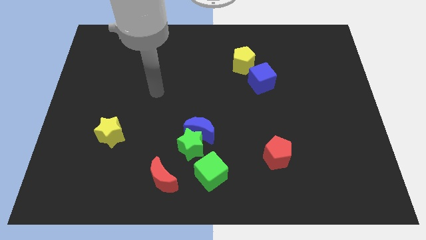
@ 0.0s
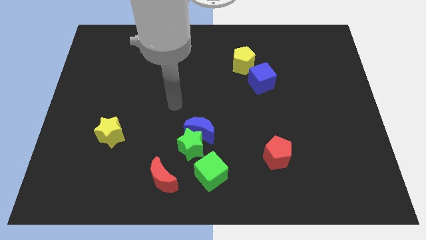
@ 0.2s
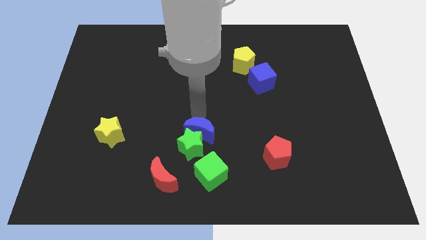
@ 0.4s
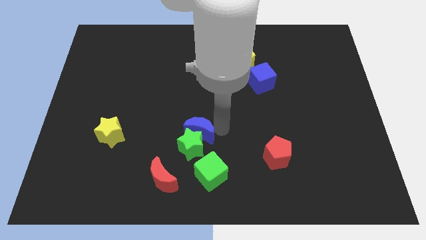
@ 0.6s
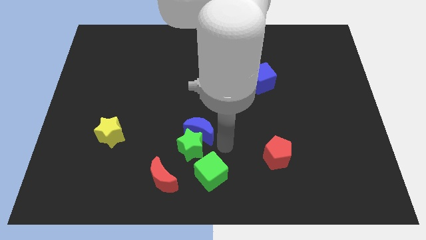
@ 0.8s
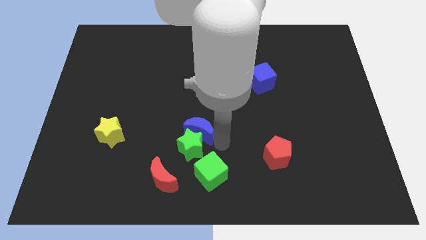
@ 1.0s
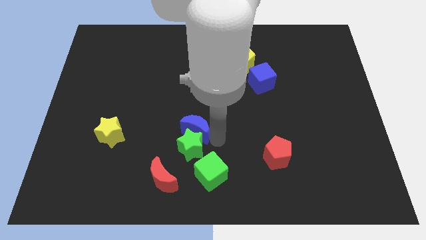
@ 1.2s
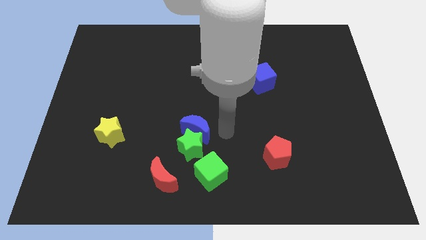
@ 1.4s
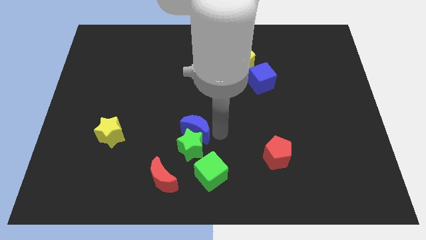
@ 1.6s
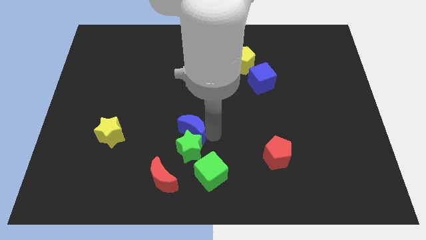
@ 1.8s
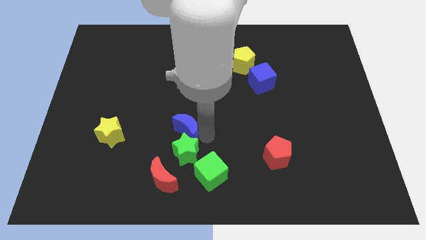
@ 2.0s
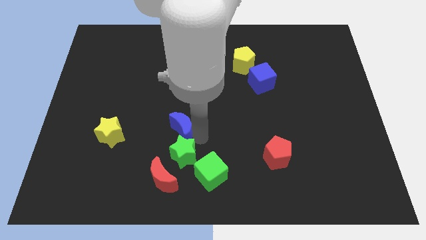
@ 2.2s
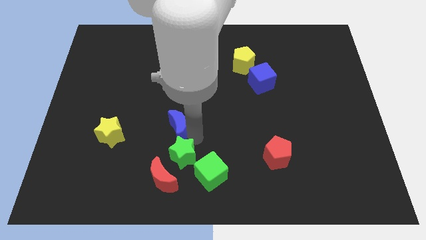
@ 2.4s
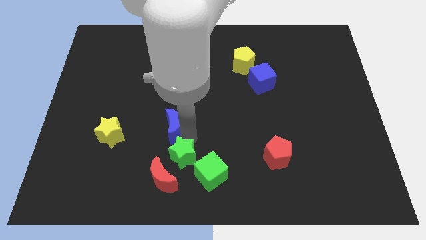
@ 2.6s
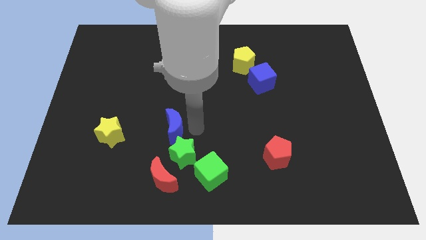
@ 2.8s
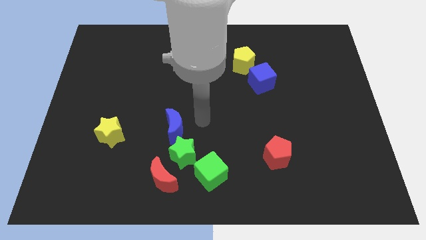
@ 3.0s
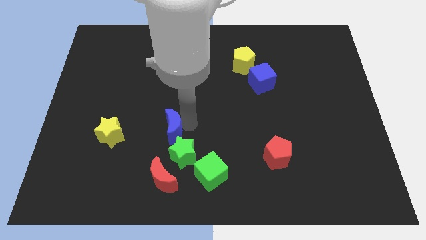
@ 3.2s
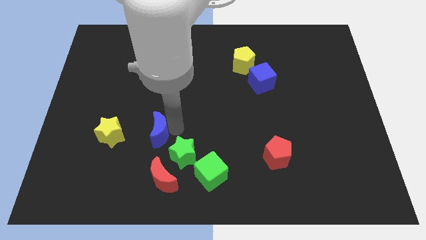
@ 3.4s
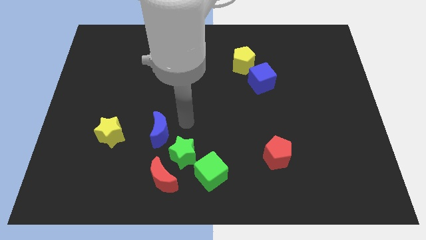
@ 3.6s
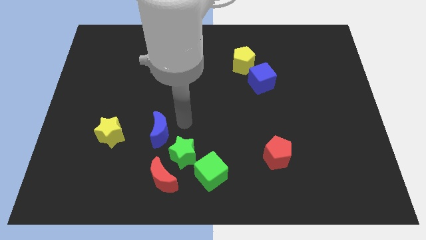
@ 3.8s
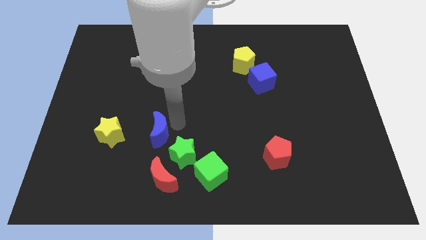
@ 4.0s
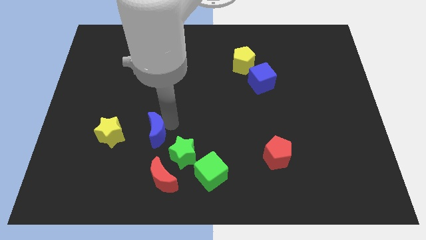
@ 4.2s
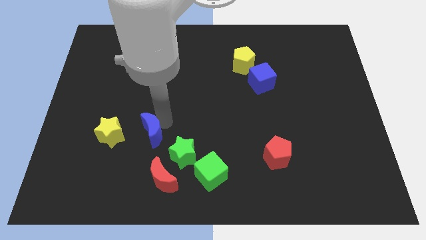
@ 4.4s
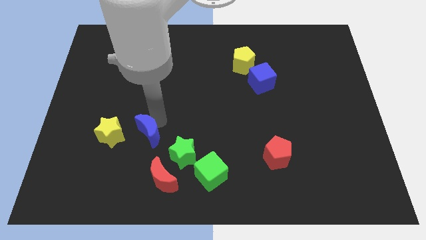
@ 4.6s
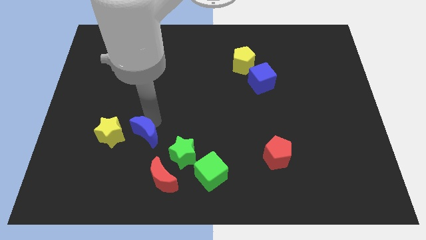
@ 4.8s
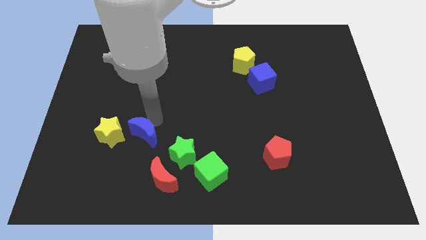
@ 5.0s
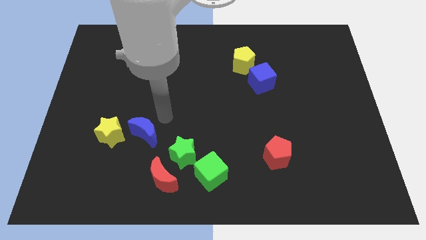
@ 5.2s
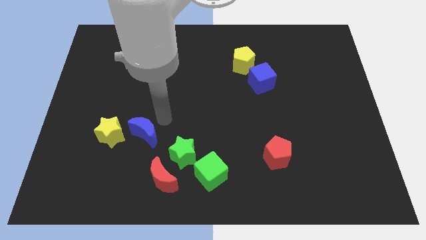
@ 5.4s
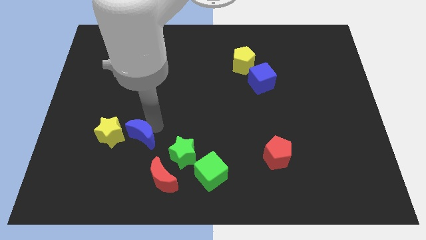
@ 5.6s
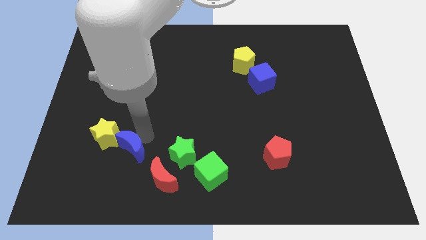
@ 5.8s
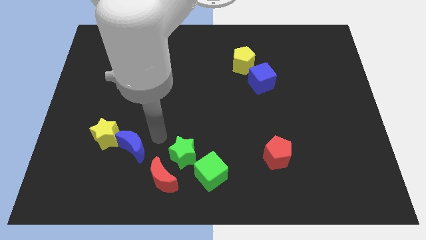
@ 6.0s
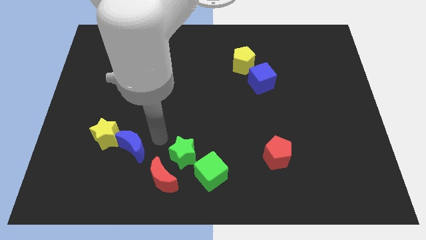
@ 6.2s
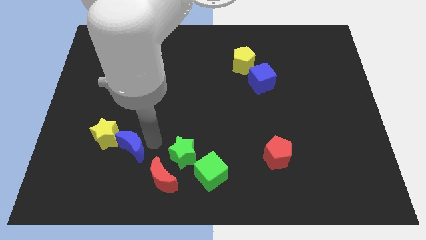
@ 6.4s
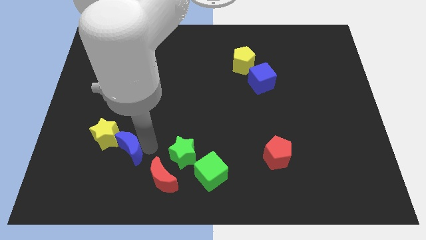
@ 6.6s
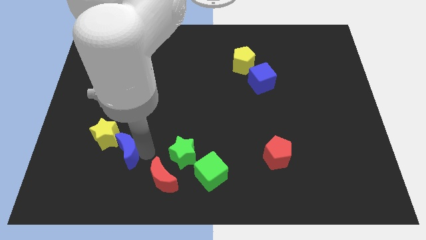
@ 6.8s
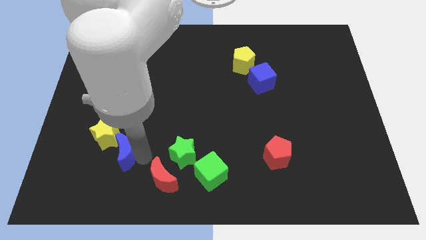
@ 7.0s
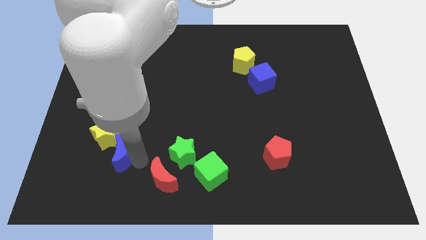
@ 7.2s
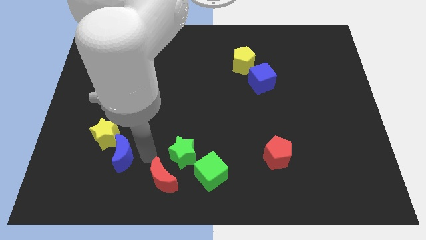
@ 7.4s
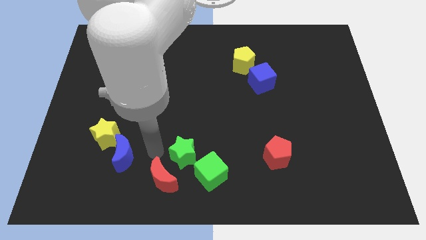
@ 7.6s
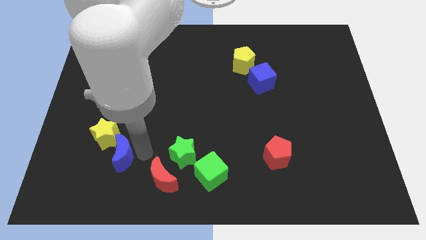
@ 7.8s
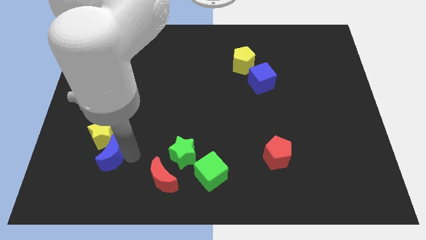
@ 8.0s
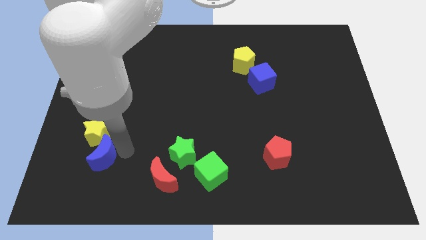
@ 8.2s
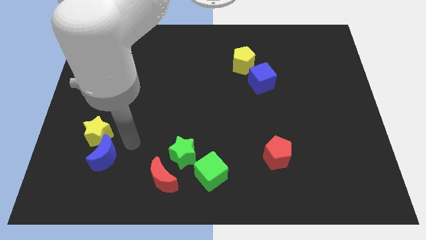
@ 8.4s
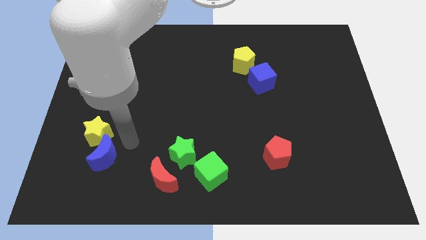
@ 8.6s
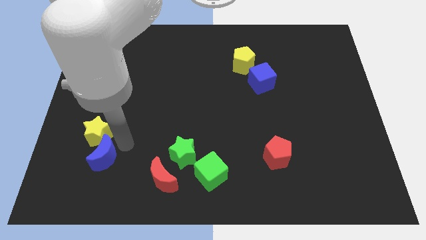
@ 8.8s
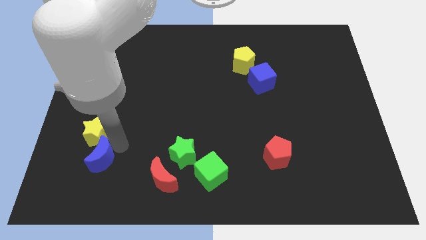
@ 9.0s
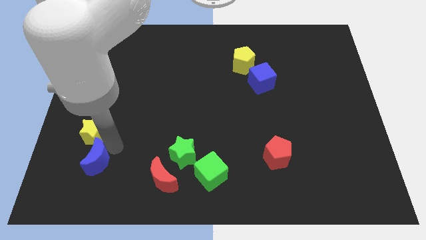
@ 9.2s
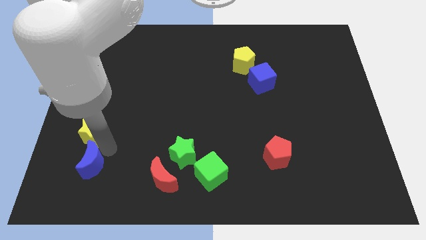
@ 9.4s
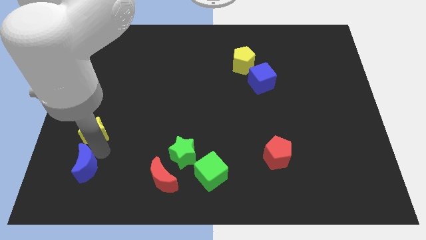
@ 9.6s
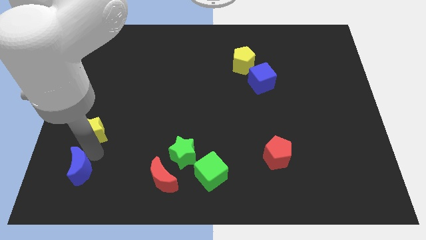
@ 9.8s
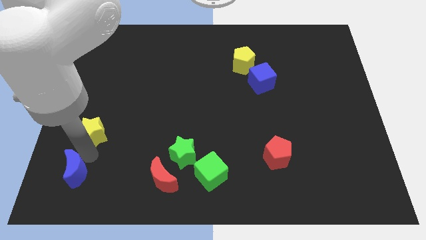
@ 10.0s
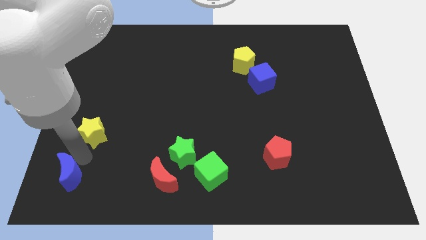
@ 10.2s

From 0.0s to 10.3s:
move the blue moon to the bottom left

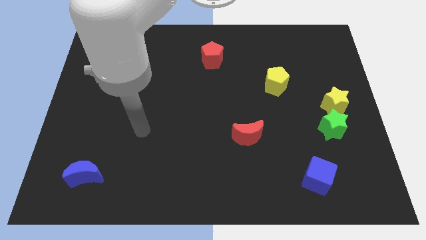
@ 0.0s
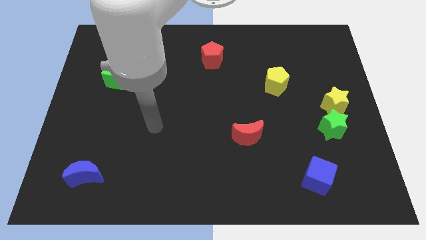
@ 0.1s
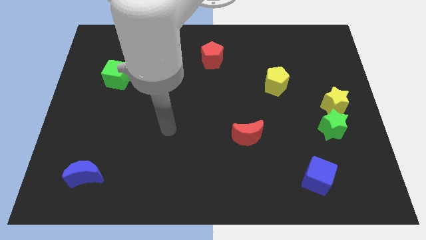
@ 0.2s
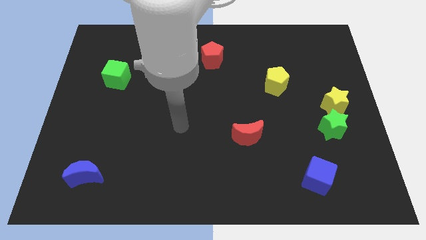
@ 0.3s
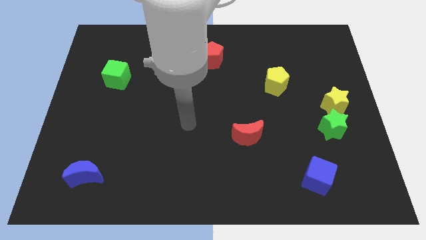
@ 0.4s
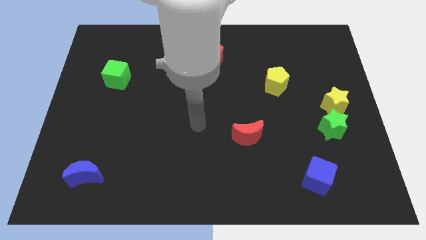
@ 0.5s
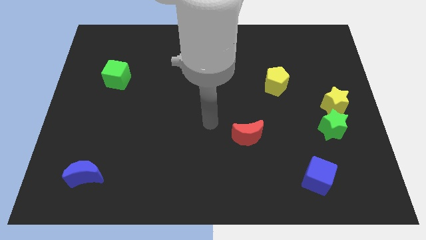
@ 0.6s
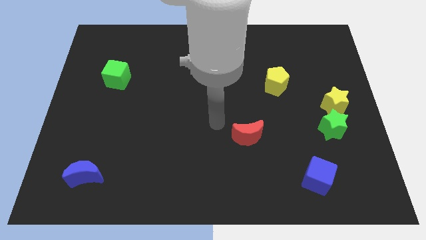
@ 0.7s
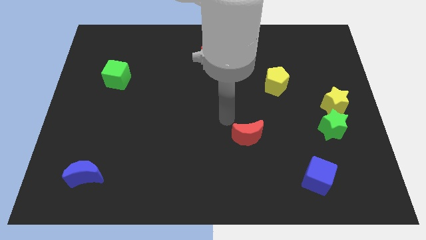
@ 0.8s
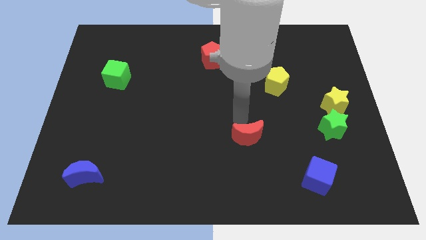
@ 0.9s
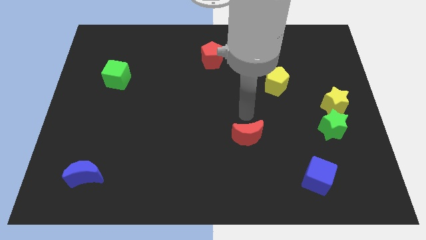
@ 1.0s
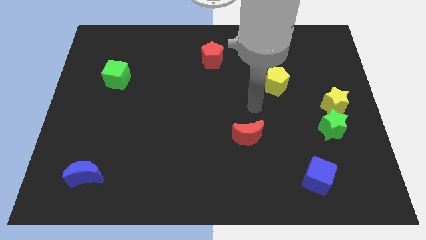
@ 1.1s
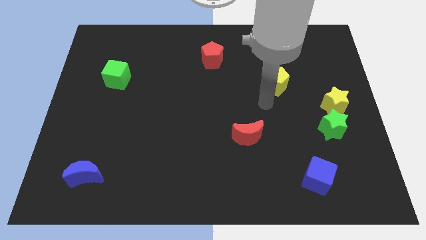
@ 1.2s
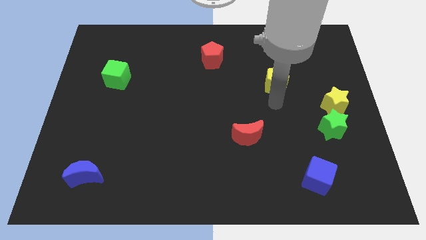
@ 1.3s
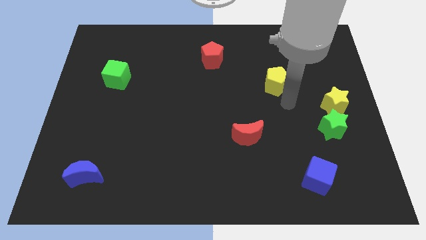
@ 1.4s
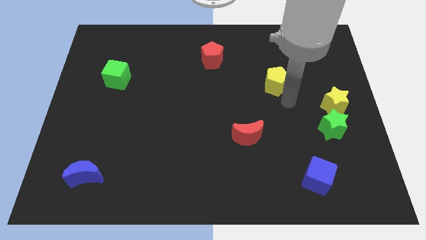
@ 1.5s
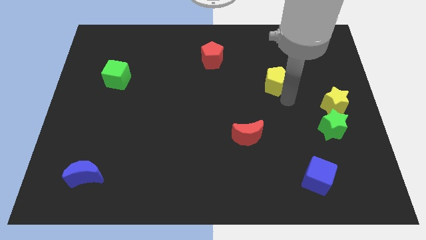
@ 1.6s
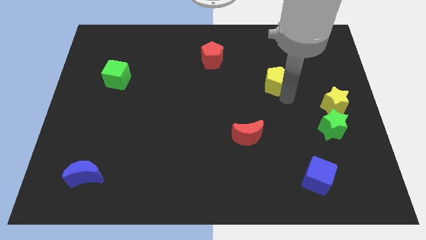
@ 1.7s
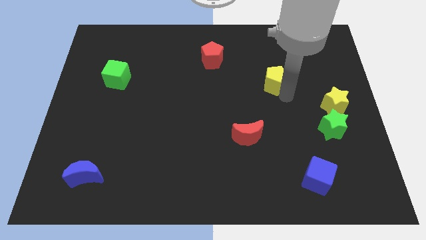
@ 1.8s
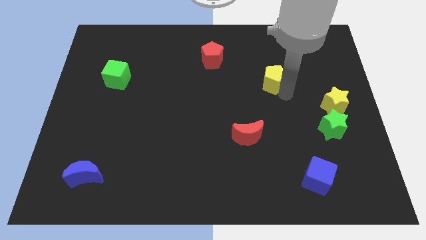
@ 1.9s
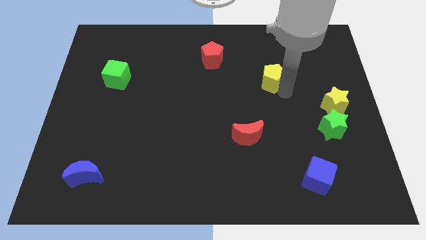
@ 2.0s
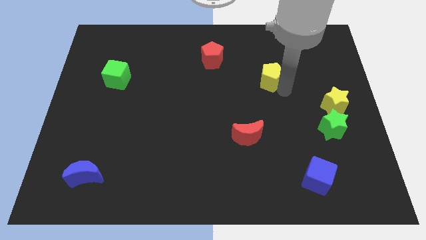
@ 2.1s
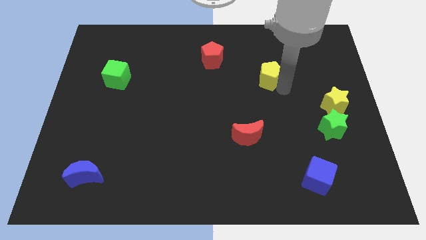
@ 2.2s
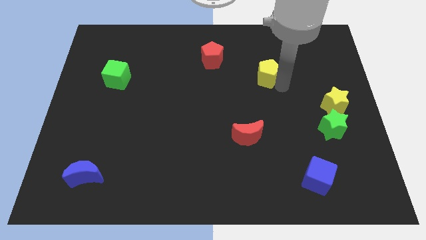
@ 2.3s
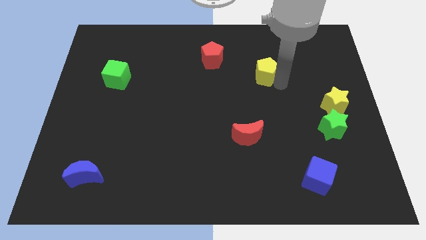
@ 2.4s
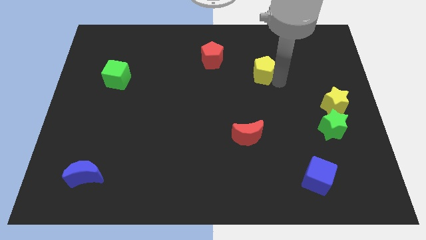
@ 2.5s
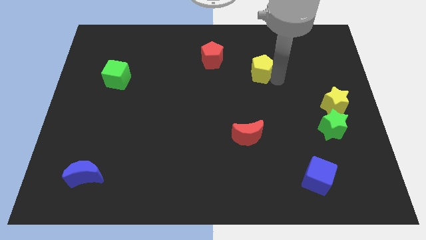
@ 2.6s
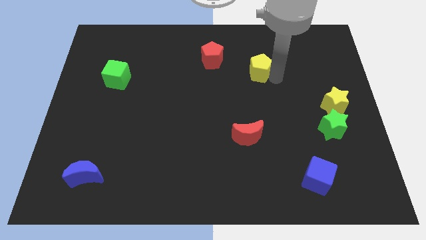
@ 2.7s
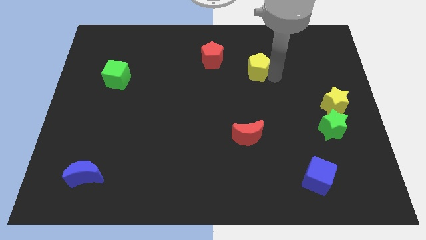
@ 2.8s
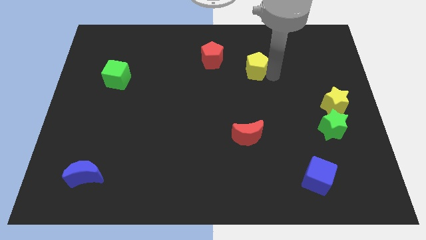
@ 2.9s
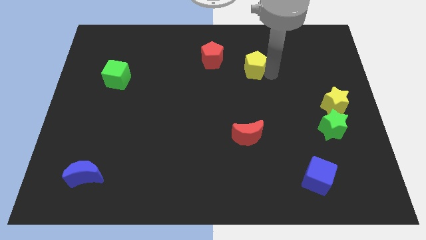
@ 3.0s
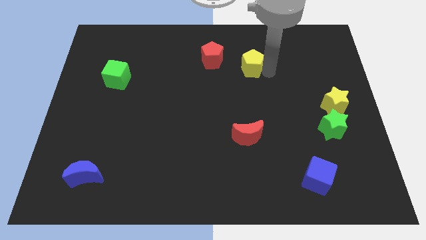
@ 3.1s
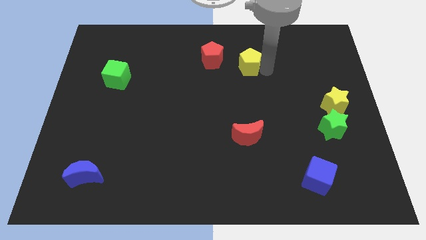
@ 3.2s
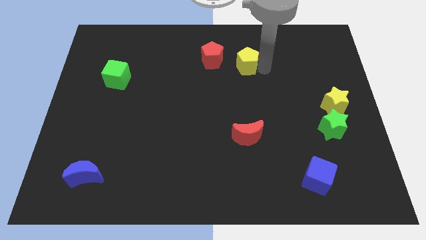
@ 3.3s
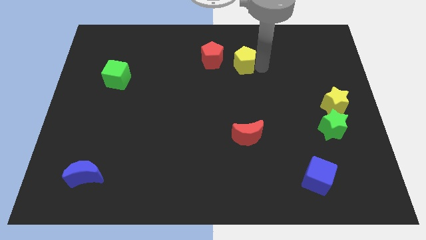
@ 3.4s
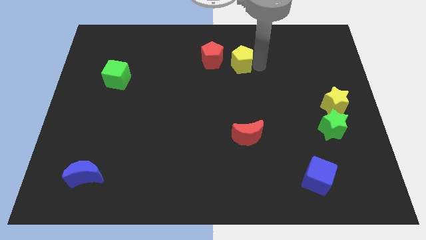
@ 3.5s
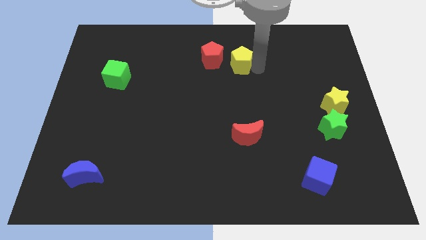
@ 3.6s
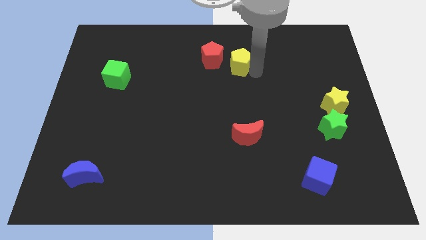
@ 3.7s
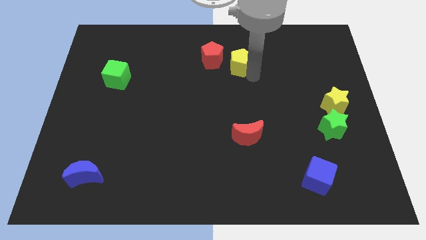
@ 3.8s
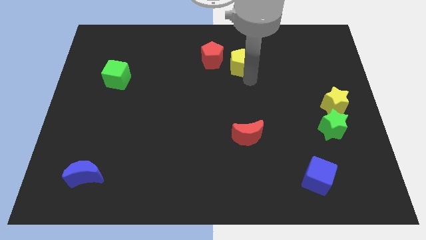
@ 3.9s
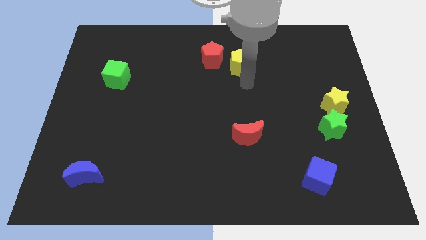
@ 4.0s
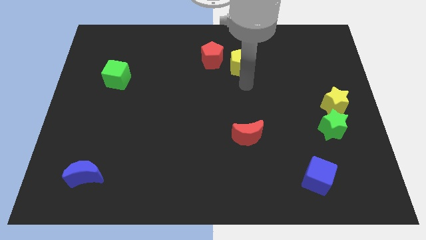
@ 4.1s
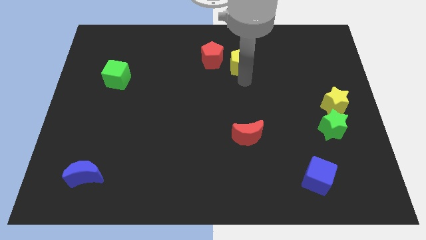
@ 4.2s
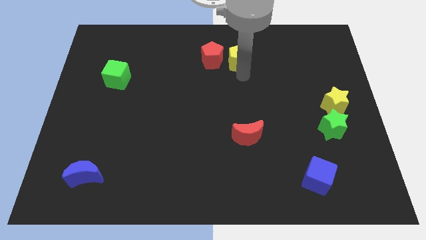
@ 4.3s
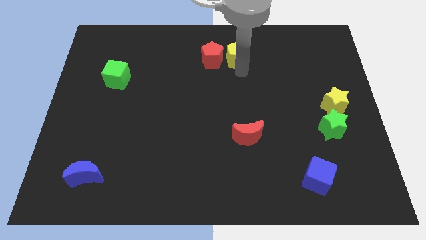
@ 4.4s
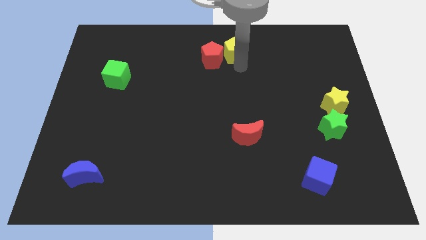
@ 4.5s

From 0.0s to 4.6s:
slide the yellow pentagon to the top
